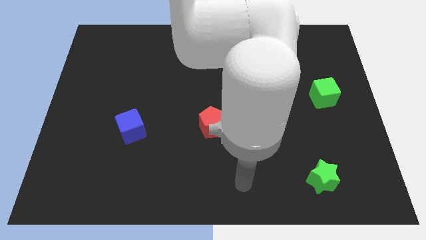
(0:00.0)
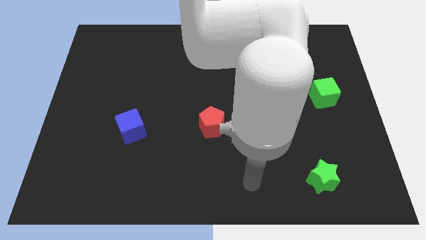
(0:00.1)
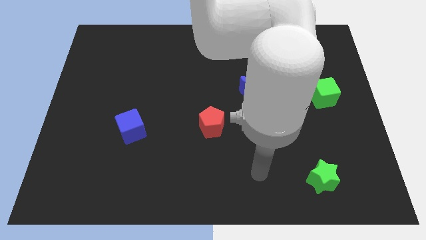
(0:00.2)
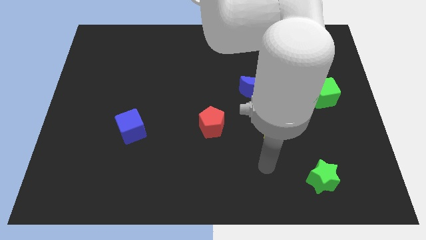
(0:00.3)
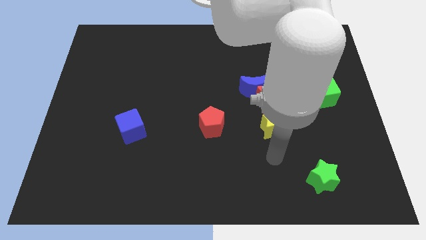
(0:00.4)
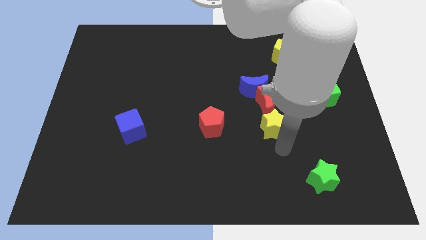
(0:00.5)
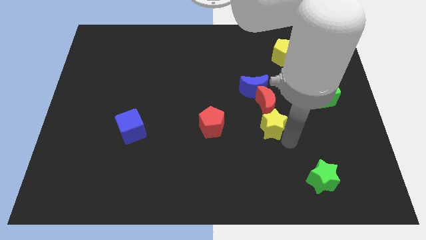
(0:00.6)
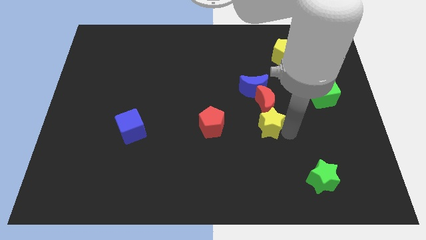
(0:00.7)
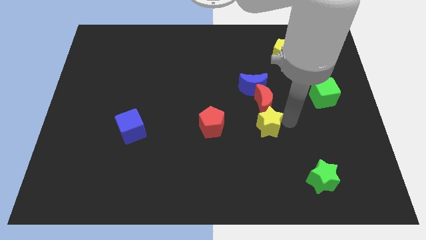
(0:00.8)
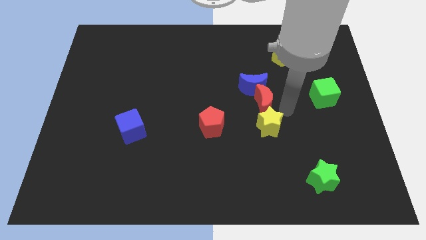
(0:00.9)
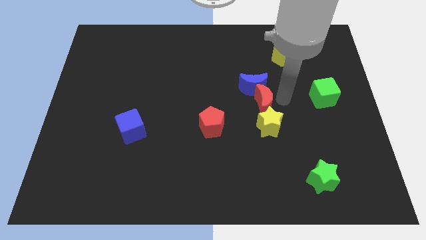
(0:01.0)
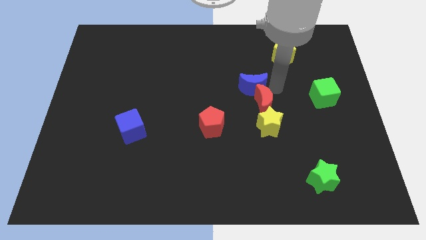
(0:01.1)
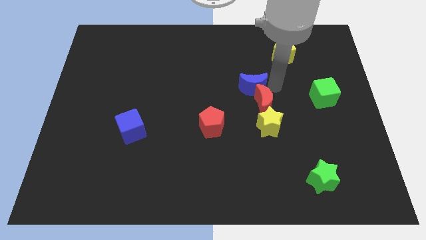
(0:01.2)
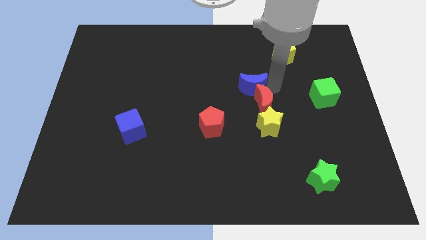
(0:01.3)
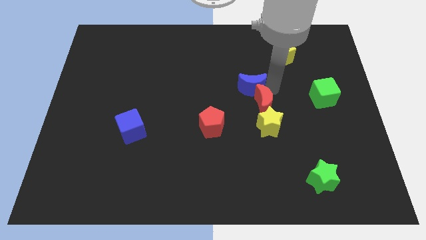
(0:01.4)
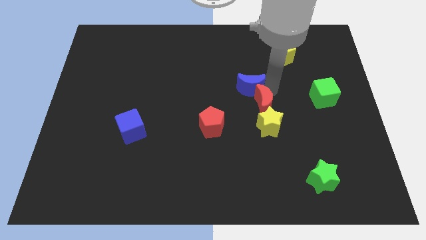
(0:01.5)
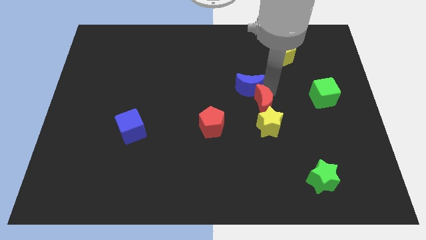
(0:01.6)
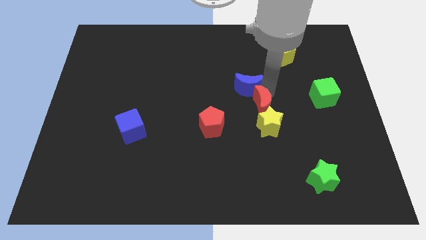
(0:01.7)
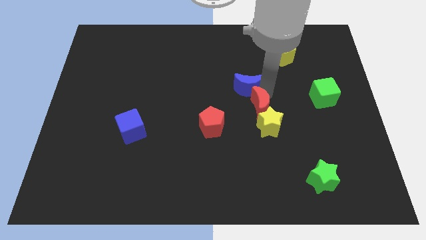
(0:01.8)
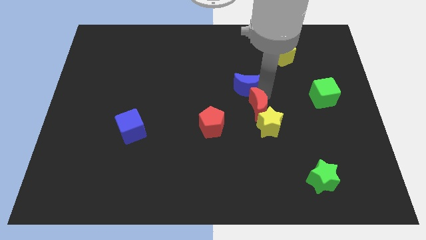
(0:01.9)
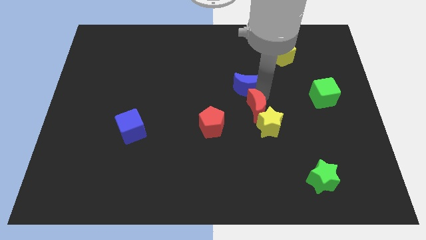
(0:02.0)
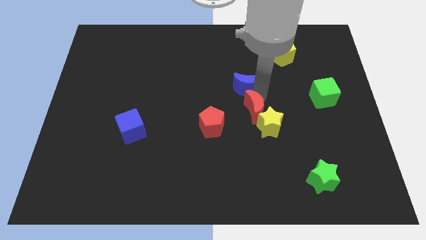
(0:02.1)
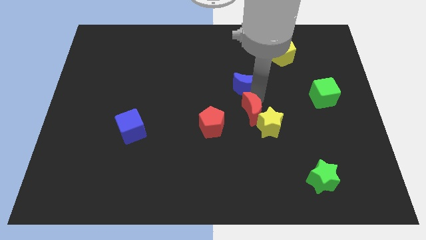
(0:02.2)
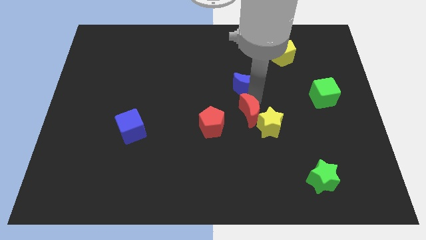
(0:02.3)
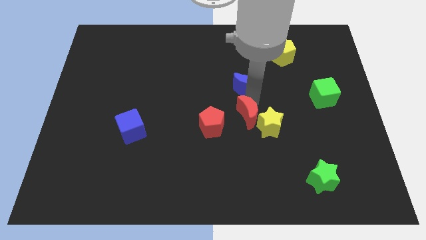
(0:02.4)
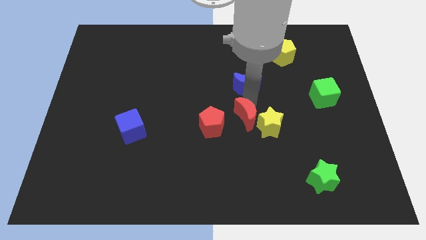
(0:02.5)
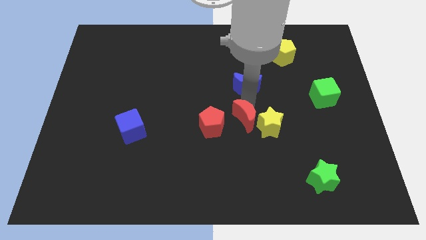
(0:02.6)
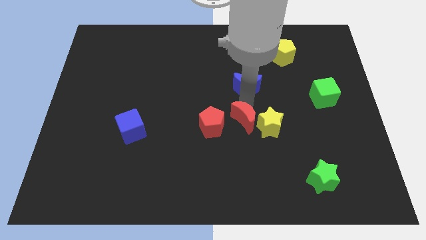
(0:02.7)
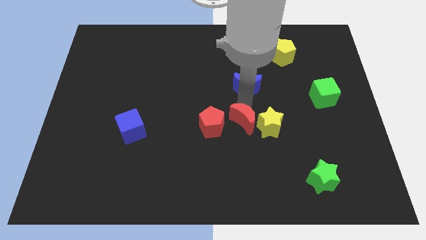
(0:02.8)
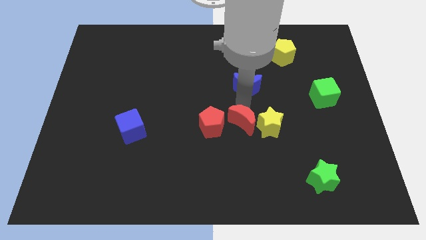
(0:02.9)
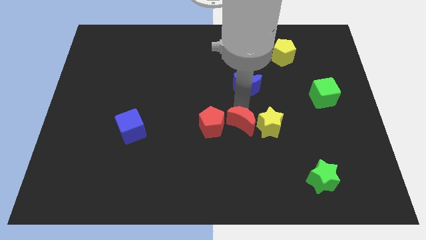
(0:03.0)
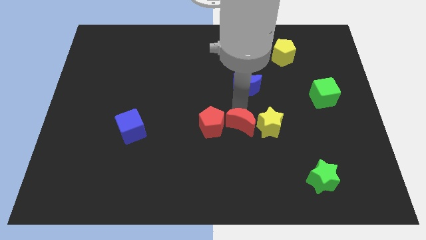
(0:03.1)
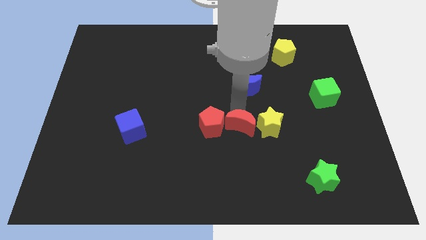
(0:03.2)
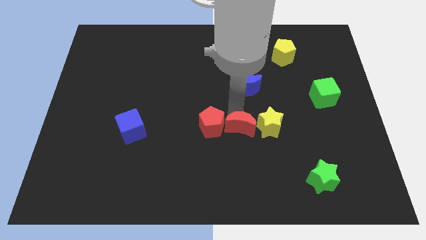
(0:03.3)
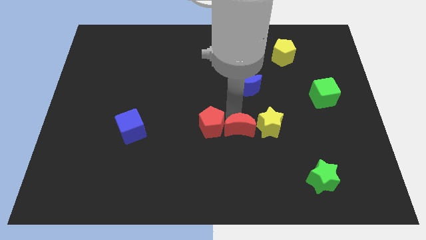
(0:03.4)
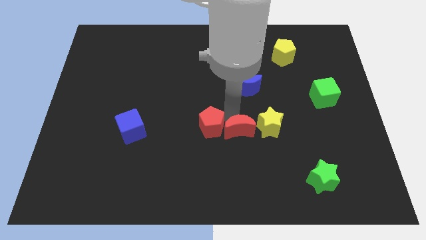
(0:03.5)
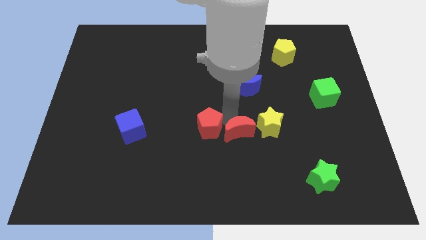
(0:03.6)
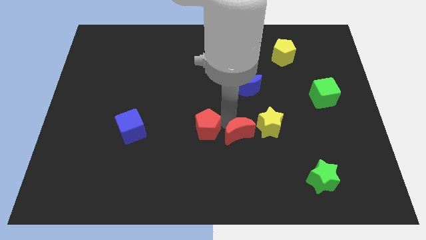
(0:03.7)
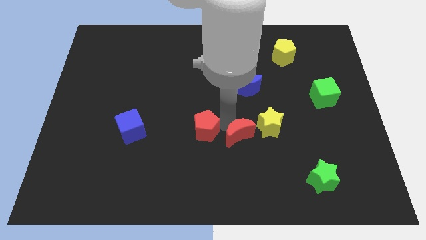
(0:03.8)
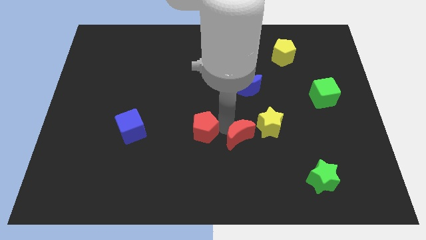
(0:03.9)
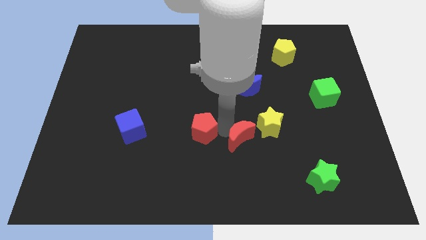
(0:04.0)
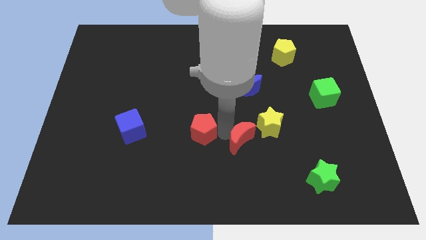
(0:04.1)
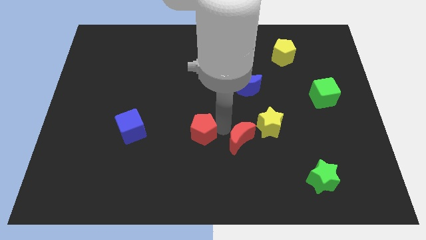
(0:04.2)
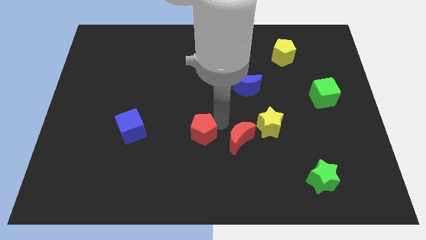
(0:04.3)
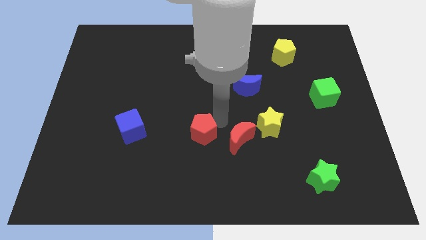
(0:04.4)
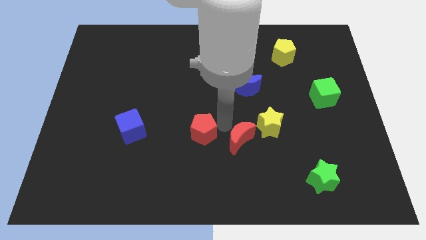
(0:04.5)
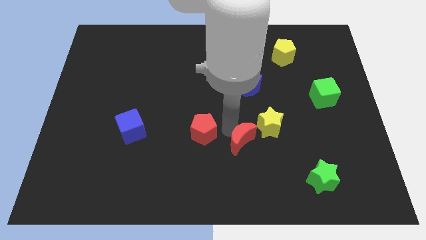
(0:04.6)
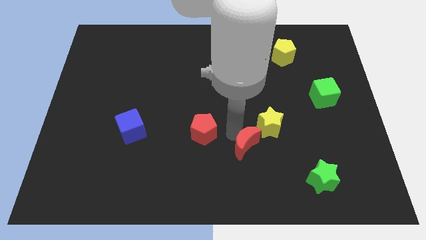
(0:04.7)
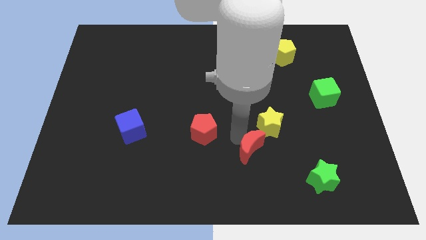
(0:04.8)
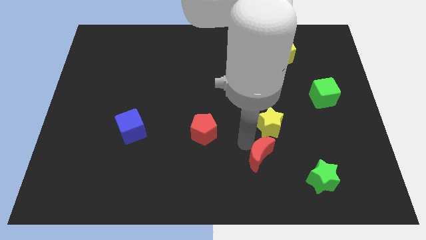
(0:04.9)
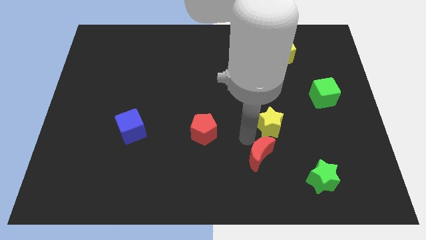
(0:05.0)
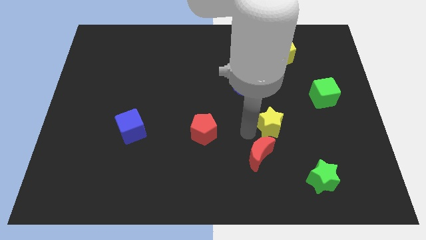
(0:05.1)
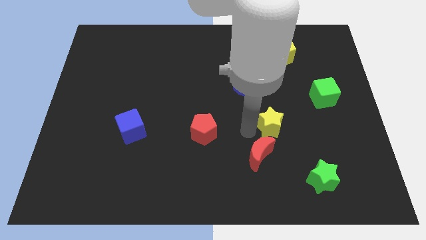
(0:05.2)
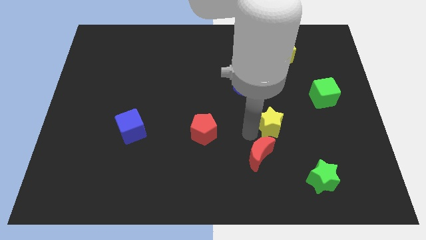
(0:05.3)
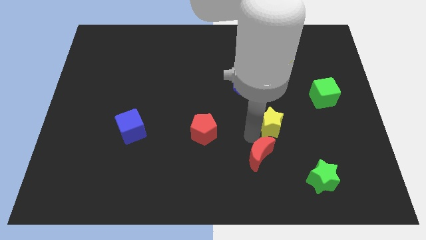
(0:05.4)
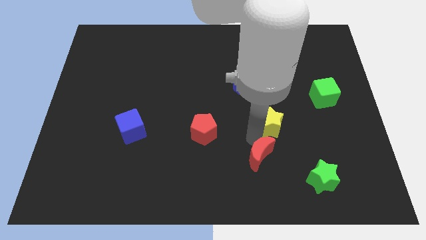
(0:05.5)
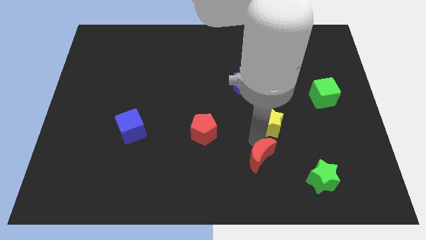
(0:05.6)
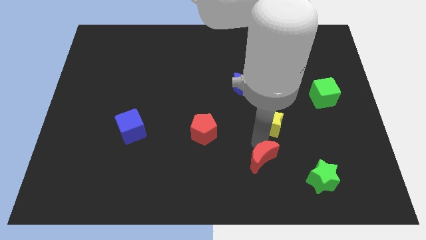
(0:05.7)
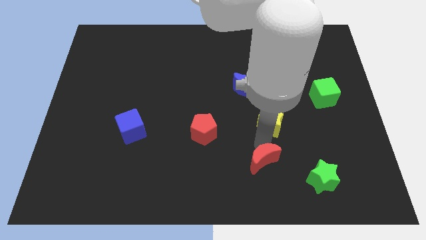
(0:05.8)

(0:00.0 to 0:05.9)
slide the red moon just left of the green star

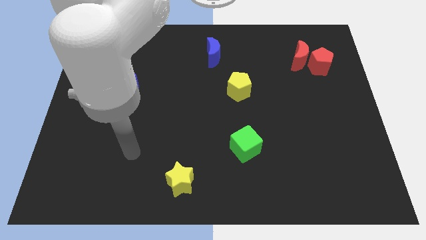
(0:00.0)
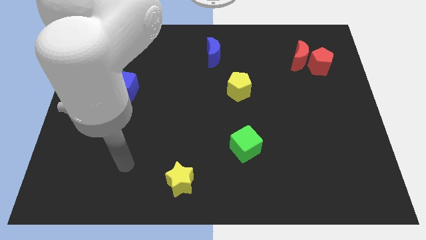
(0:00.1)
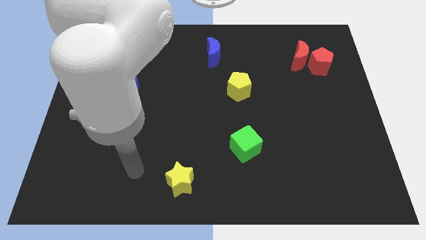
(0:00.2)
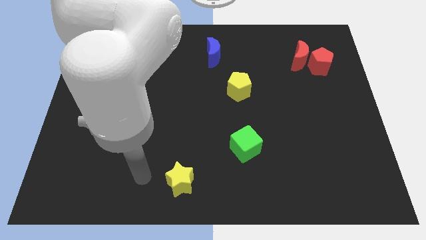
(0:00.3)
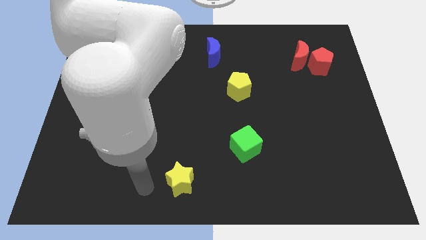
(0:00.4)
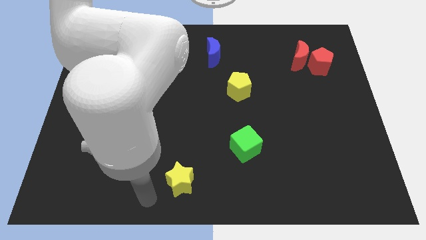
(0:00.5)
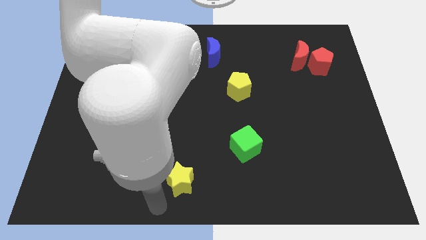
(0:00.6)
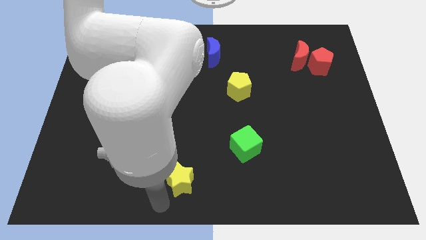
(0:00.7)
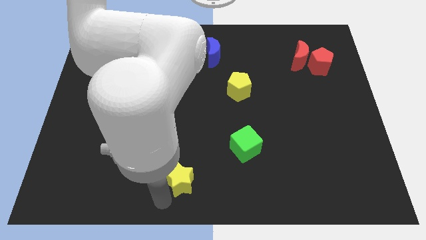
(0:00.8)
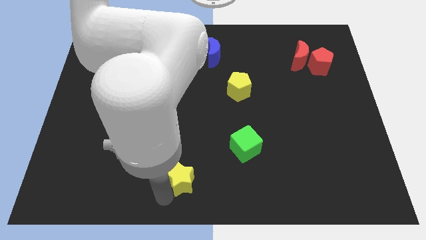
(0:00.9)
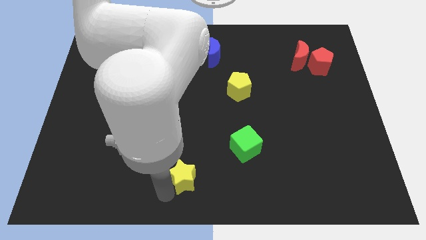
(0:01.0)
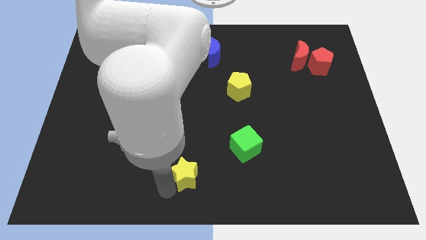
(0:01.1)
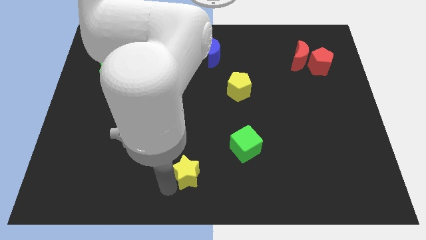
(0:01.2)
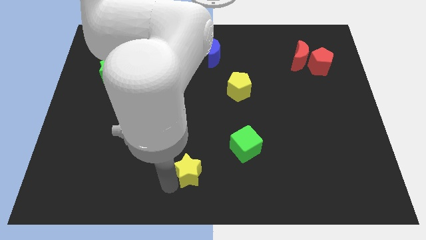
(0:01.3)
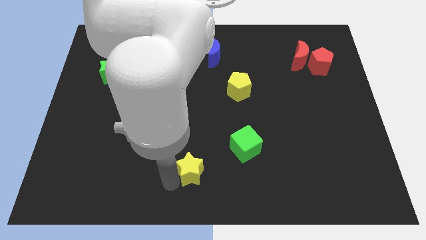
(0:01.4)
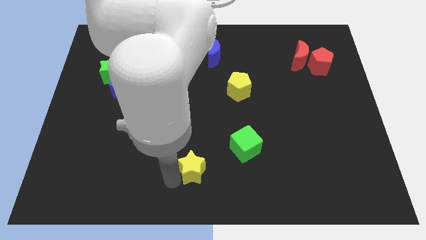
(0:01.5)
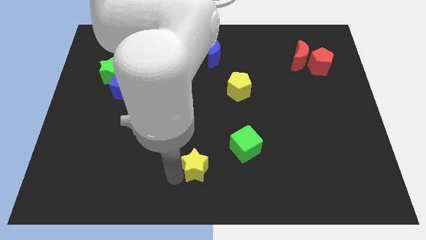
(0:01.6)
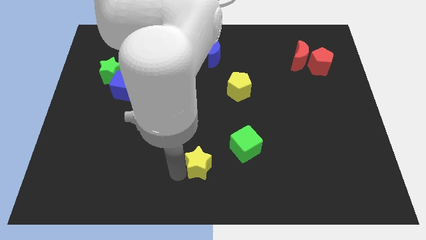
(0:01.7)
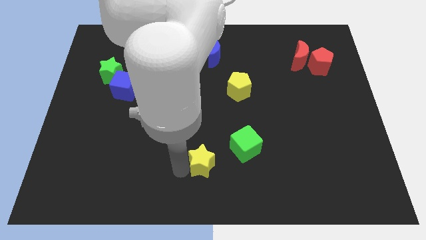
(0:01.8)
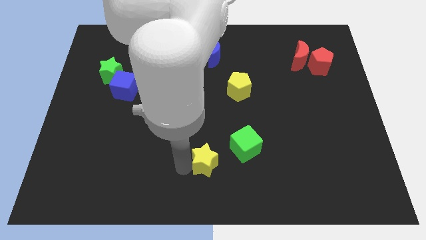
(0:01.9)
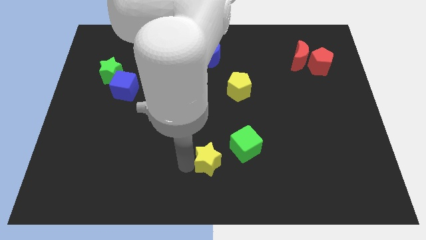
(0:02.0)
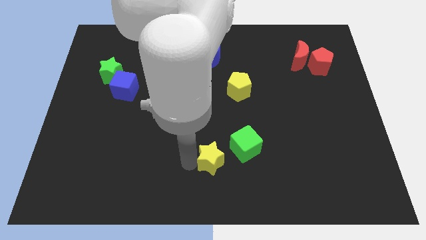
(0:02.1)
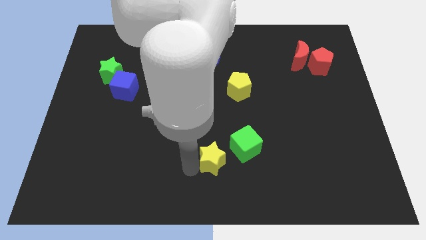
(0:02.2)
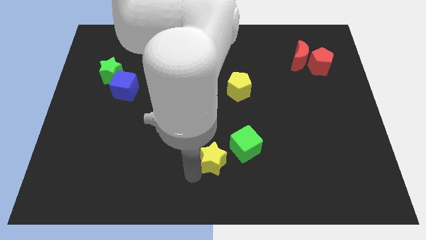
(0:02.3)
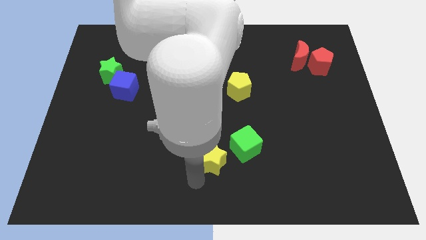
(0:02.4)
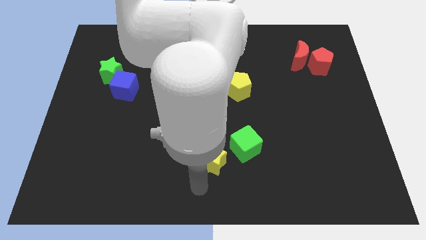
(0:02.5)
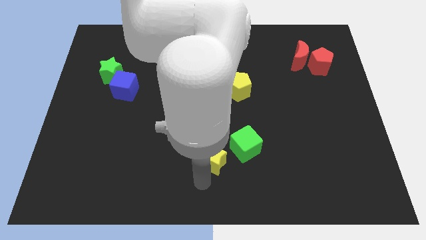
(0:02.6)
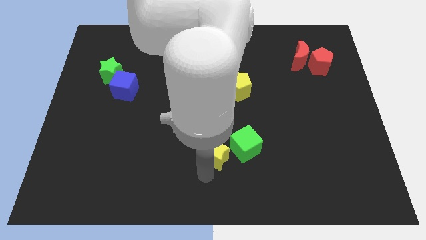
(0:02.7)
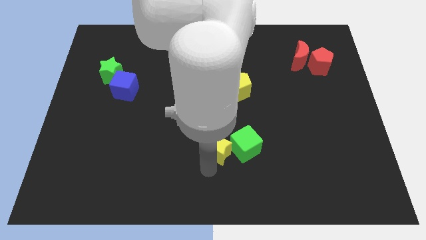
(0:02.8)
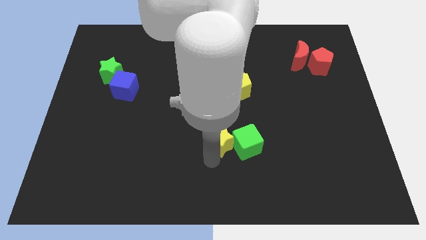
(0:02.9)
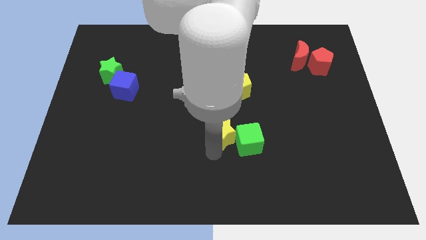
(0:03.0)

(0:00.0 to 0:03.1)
put the yellow star to the bottom side of the yellow pentagon
